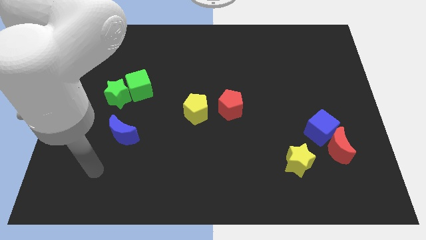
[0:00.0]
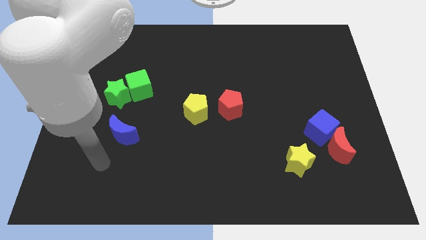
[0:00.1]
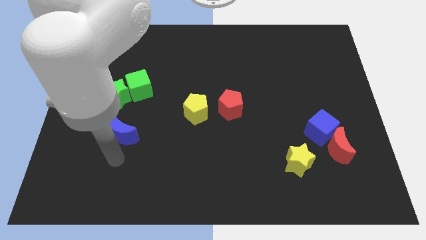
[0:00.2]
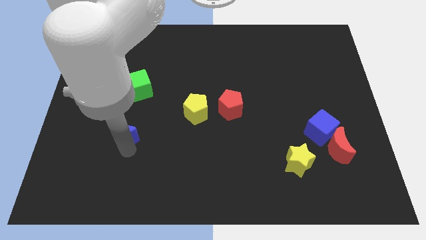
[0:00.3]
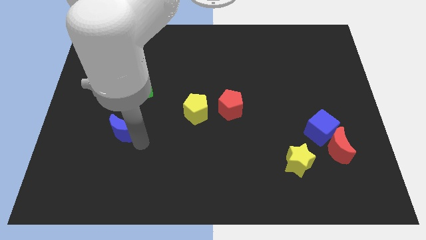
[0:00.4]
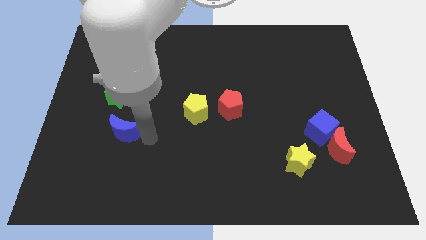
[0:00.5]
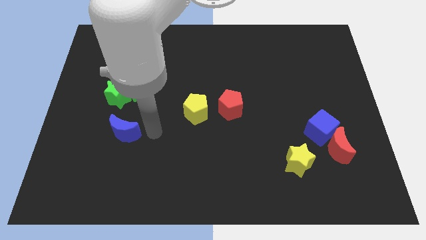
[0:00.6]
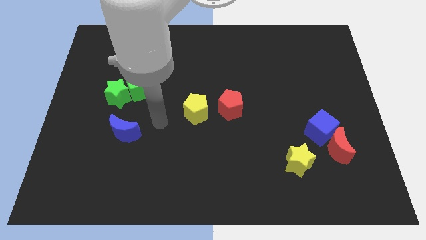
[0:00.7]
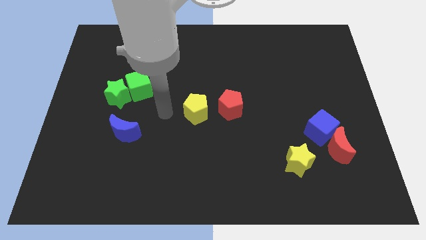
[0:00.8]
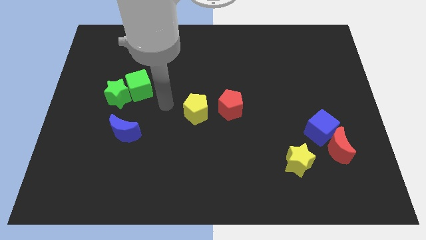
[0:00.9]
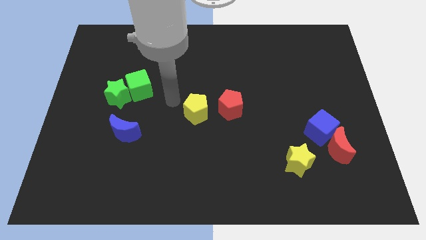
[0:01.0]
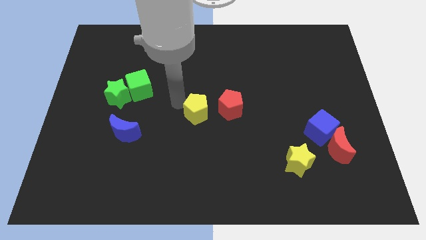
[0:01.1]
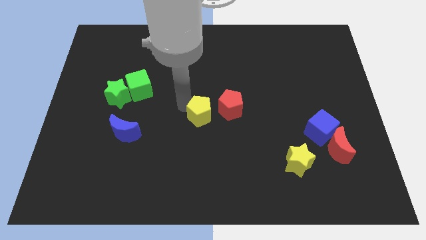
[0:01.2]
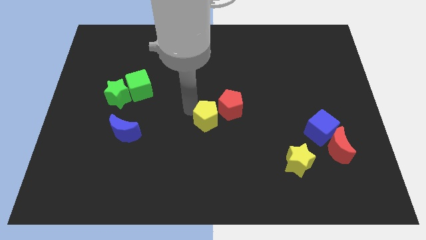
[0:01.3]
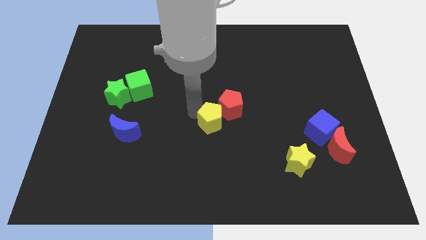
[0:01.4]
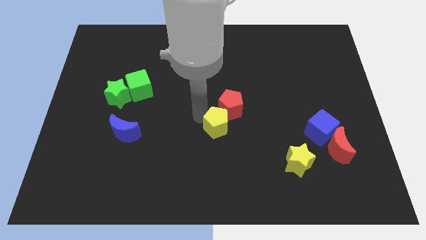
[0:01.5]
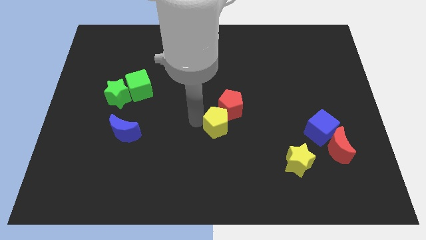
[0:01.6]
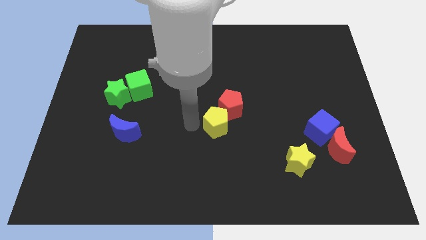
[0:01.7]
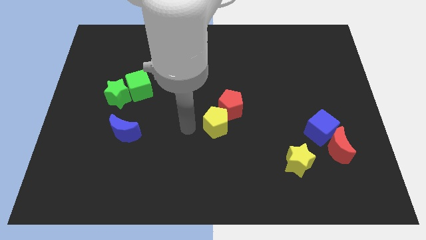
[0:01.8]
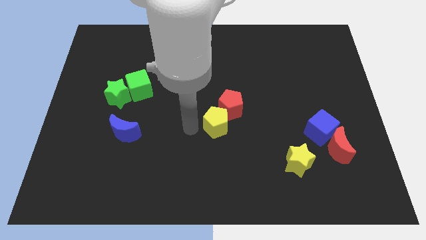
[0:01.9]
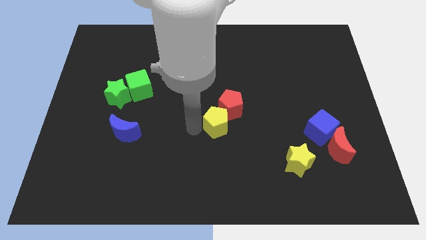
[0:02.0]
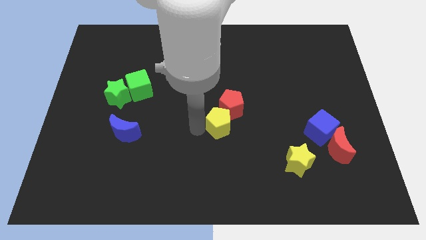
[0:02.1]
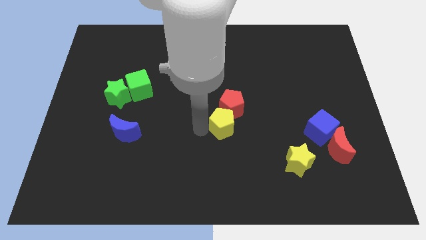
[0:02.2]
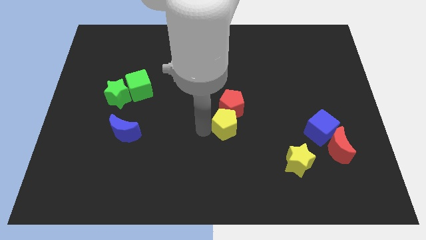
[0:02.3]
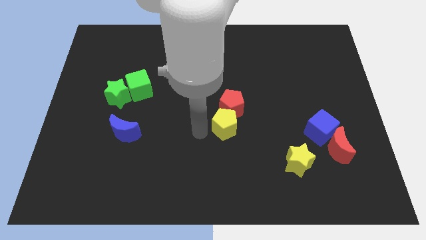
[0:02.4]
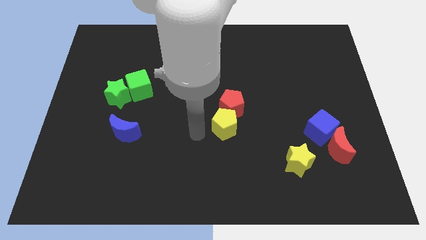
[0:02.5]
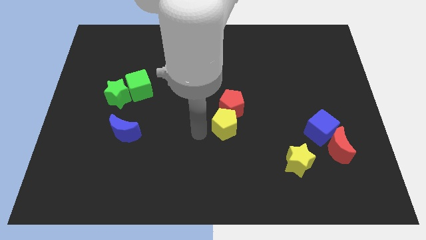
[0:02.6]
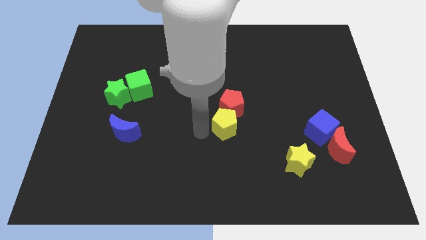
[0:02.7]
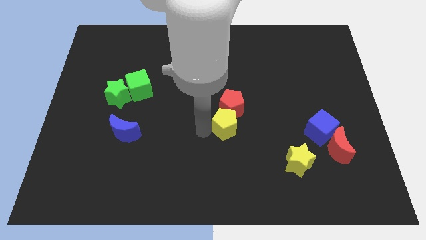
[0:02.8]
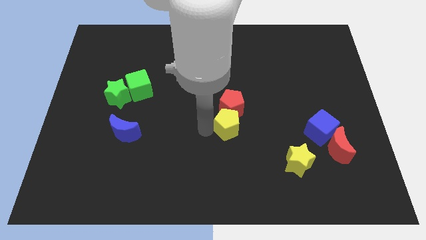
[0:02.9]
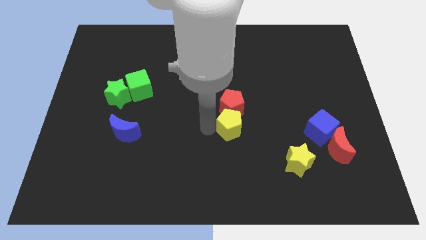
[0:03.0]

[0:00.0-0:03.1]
slightly slide the yellow pentagon to the right

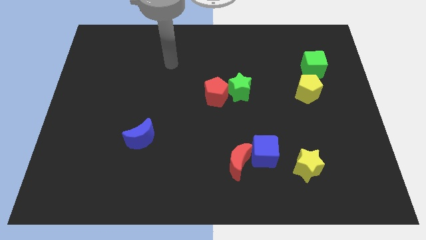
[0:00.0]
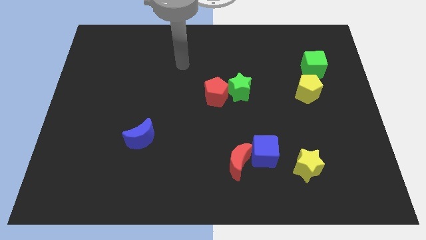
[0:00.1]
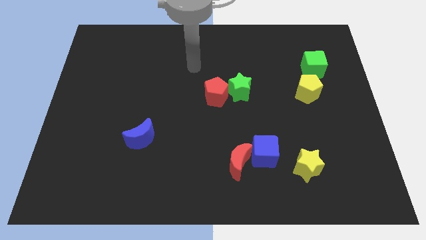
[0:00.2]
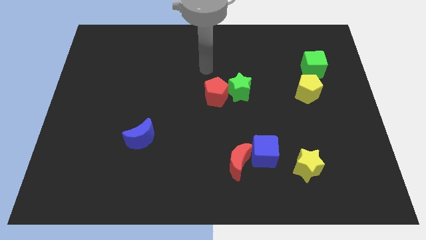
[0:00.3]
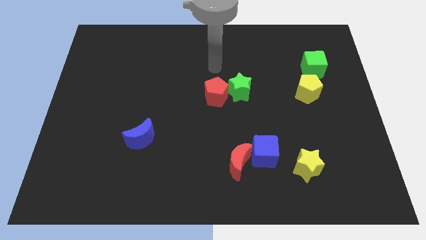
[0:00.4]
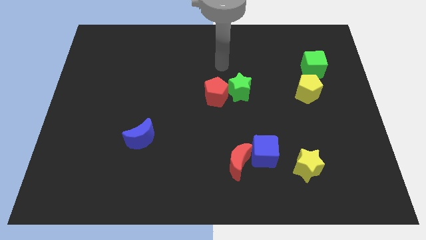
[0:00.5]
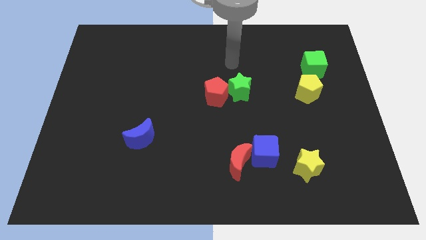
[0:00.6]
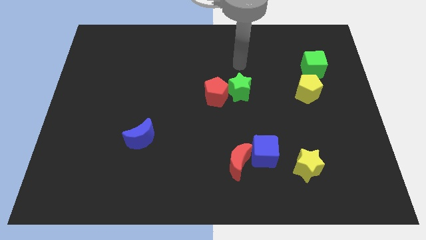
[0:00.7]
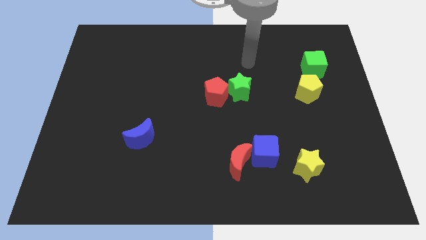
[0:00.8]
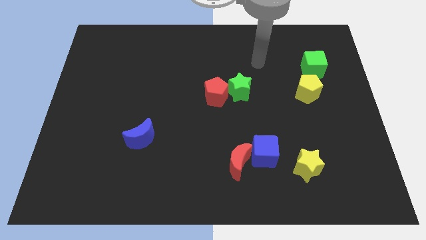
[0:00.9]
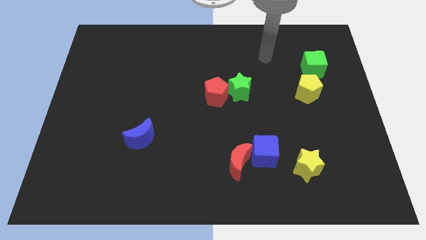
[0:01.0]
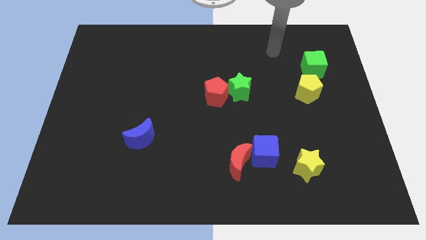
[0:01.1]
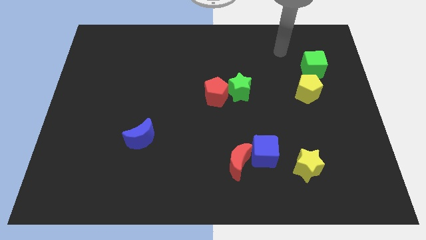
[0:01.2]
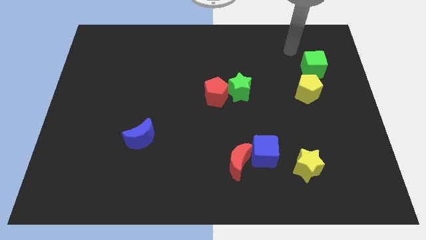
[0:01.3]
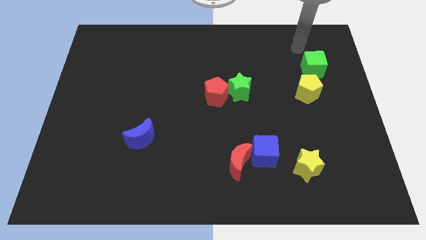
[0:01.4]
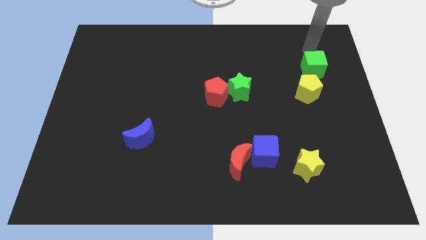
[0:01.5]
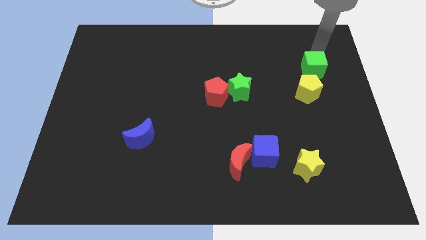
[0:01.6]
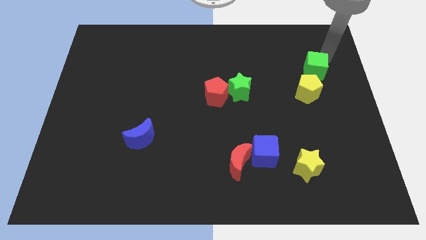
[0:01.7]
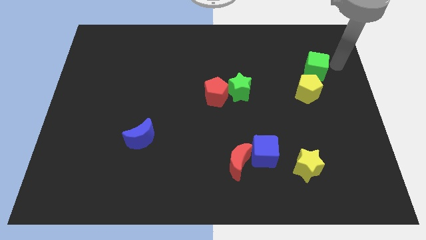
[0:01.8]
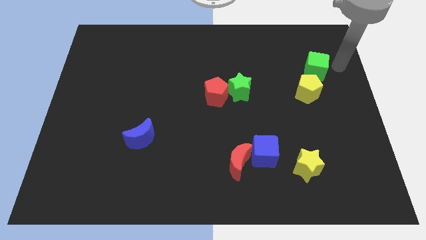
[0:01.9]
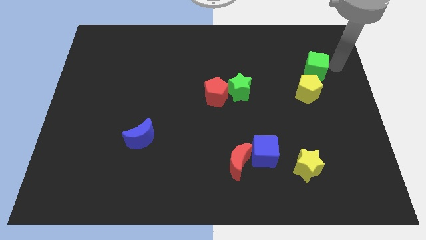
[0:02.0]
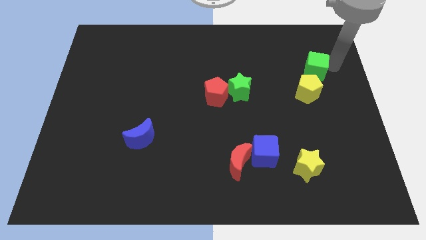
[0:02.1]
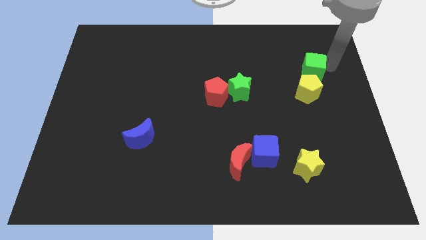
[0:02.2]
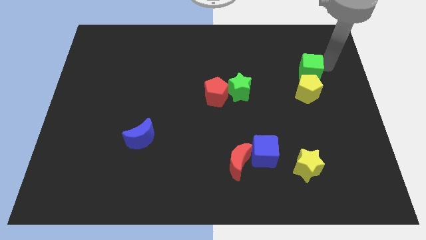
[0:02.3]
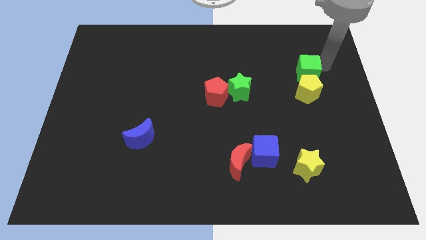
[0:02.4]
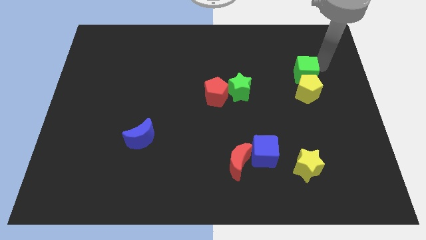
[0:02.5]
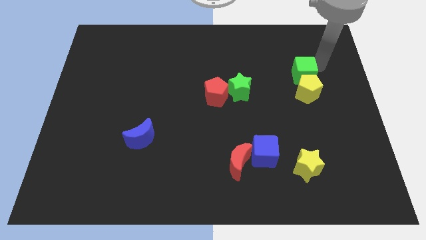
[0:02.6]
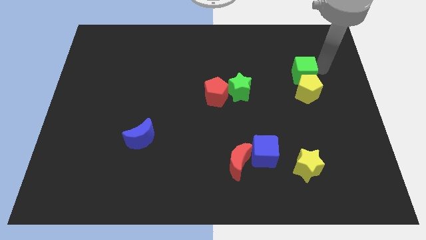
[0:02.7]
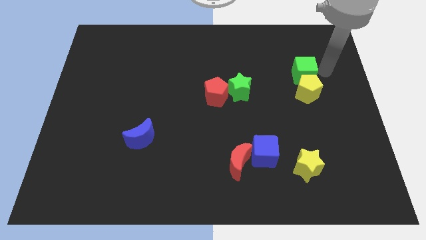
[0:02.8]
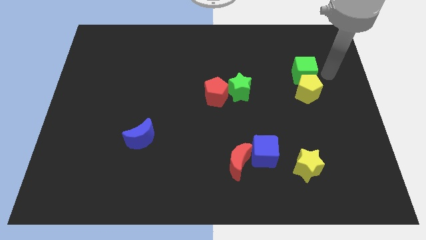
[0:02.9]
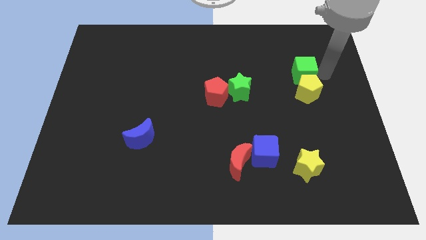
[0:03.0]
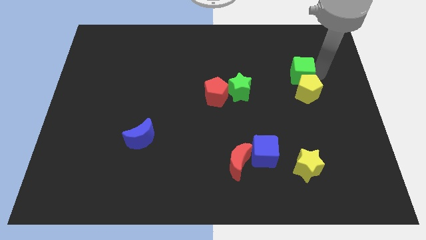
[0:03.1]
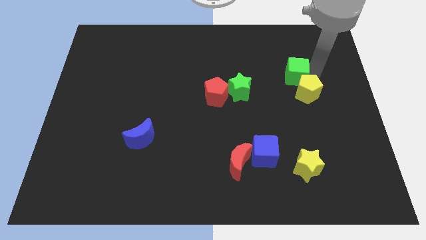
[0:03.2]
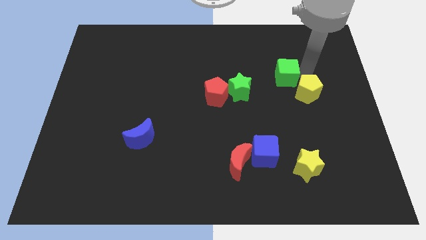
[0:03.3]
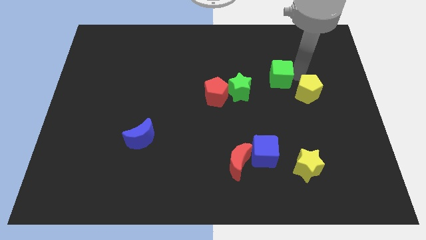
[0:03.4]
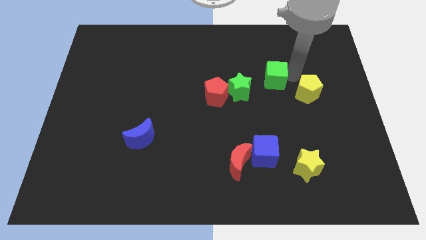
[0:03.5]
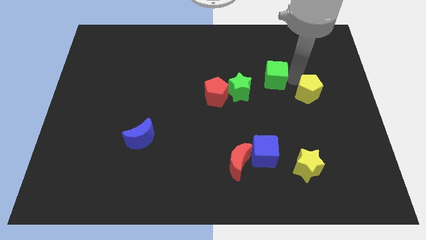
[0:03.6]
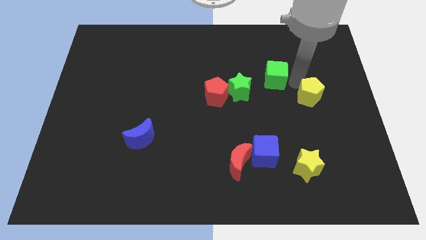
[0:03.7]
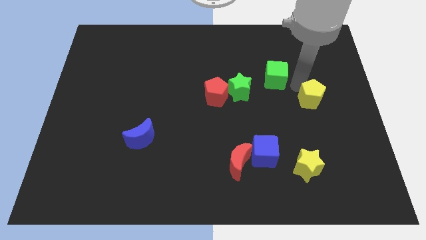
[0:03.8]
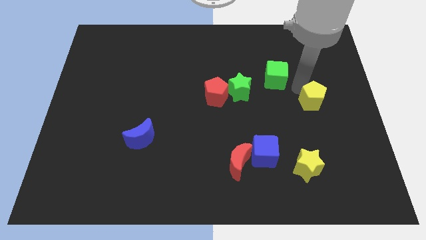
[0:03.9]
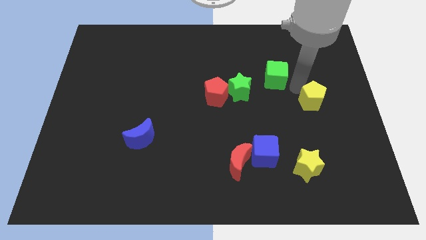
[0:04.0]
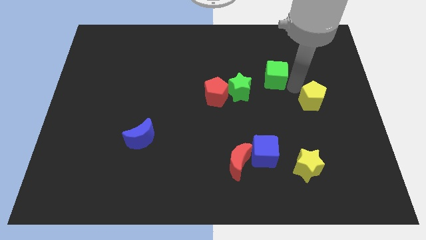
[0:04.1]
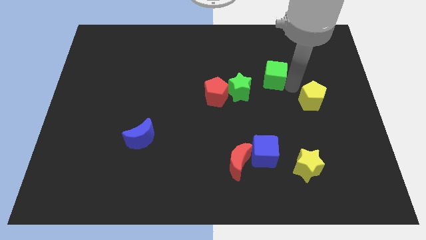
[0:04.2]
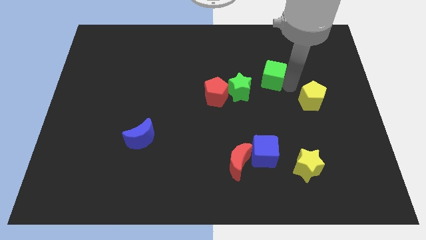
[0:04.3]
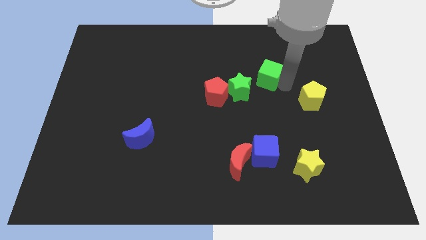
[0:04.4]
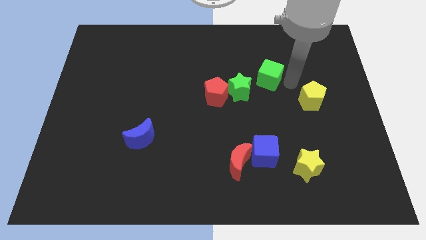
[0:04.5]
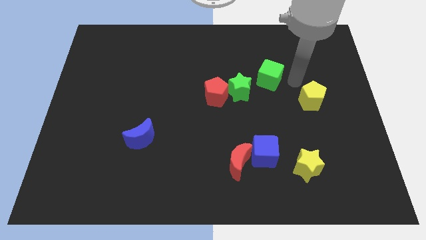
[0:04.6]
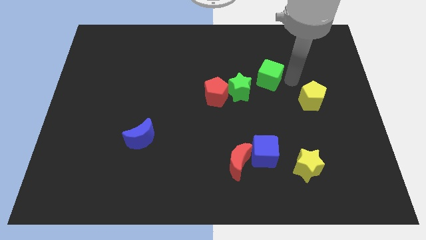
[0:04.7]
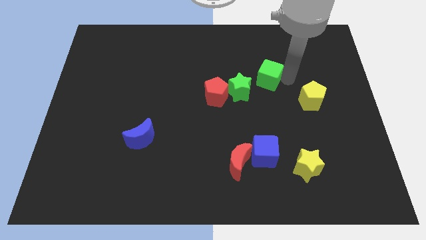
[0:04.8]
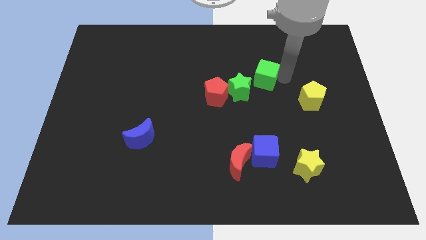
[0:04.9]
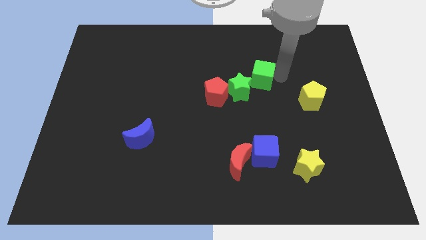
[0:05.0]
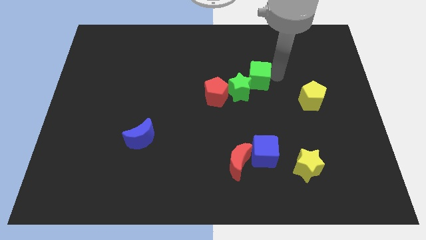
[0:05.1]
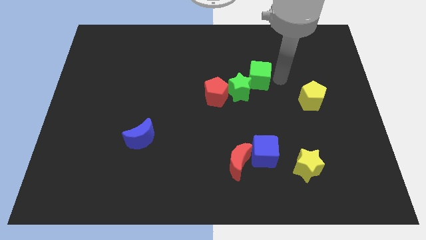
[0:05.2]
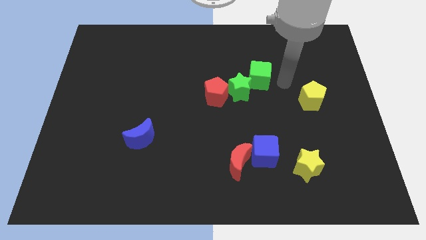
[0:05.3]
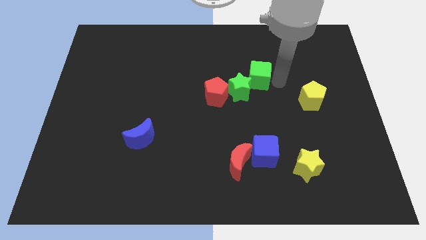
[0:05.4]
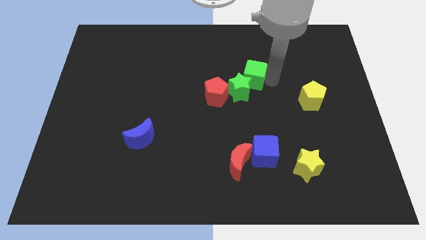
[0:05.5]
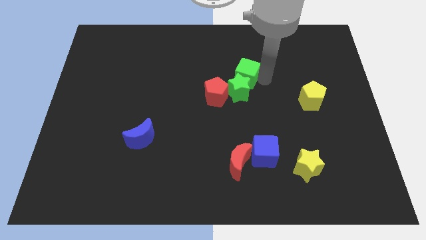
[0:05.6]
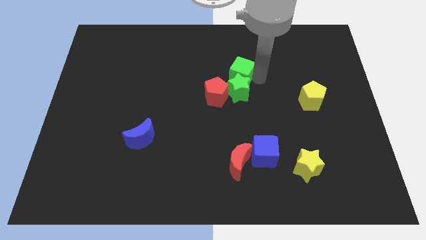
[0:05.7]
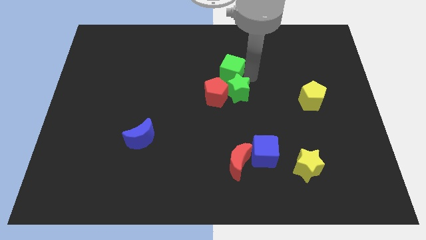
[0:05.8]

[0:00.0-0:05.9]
move the green cube left
